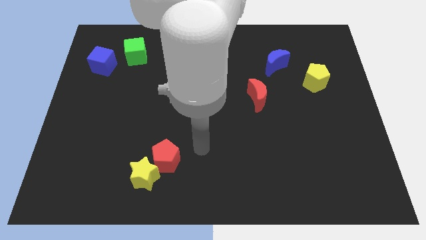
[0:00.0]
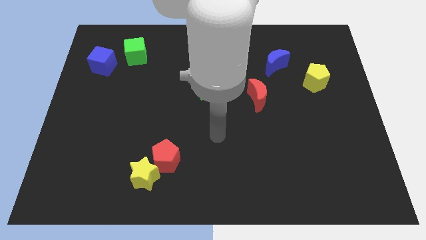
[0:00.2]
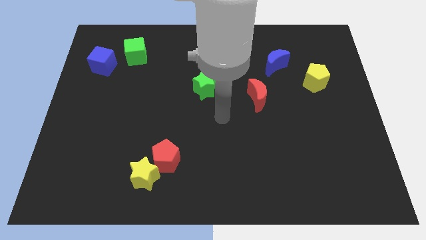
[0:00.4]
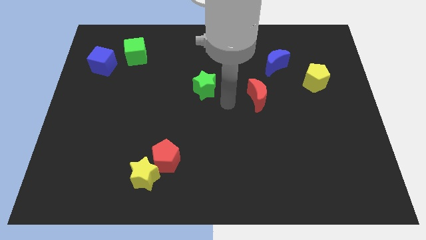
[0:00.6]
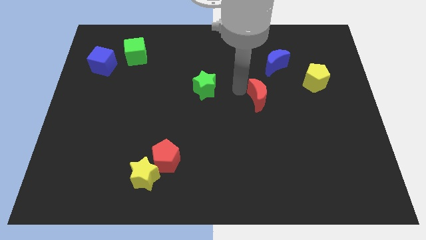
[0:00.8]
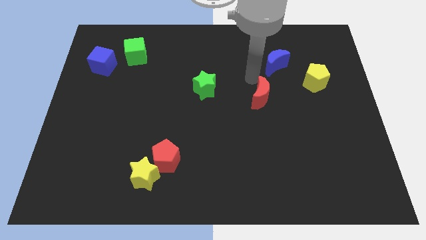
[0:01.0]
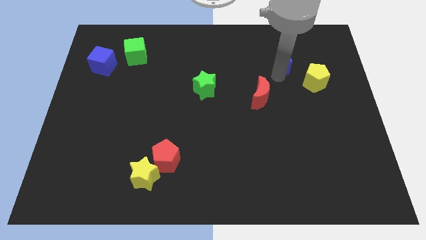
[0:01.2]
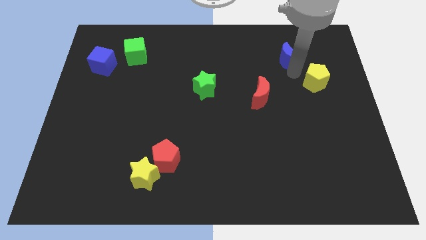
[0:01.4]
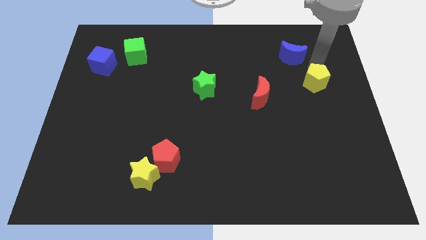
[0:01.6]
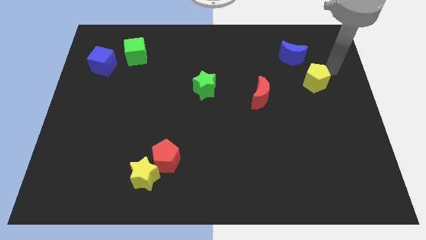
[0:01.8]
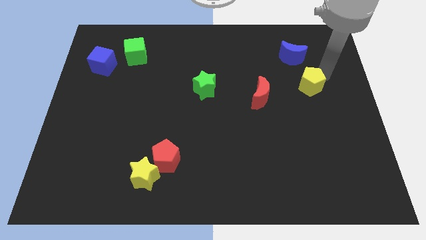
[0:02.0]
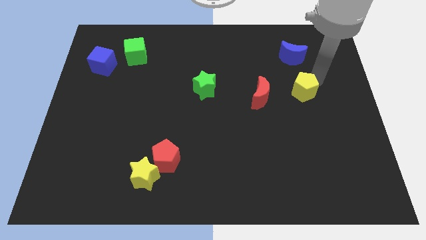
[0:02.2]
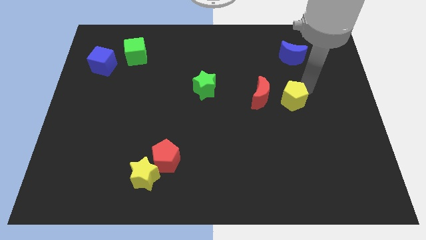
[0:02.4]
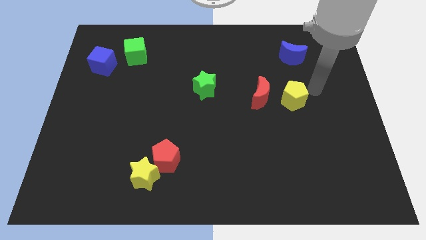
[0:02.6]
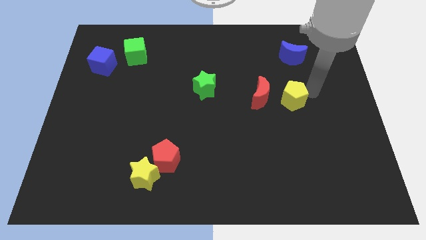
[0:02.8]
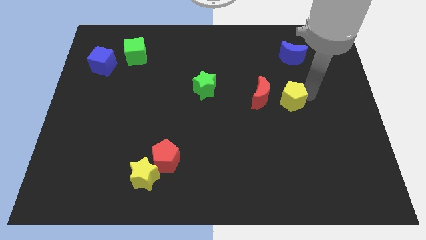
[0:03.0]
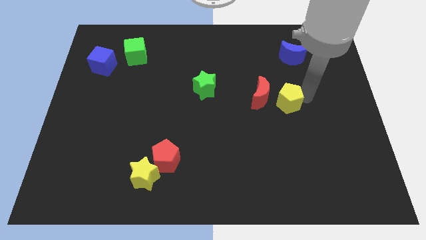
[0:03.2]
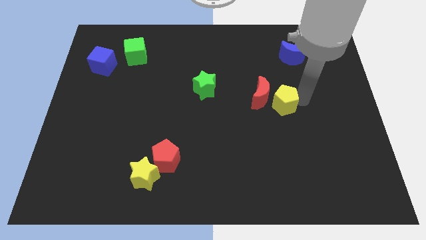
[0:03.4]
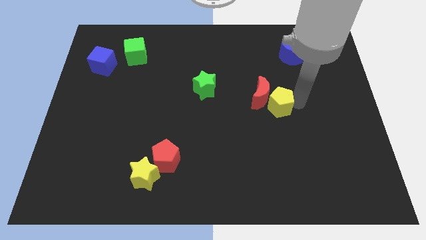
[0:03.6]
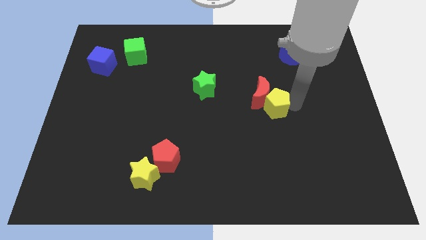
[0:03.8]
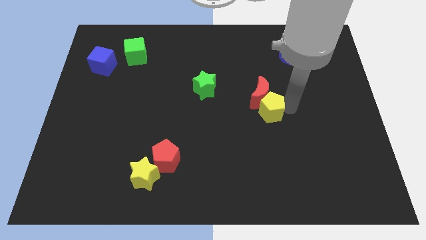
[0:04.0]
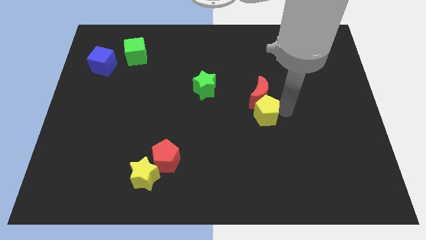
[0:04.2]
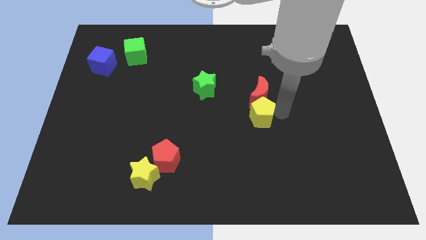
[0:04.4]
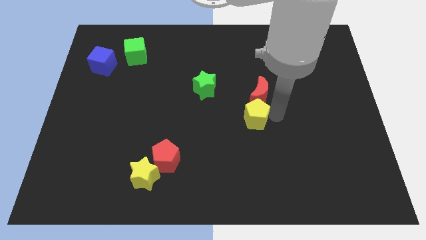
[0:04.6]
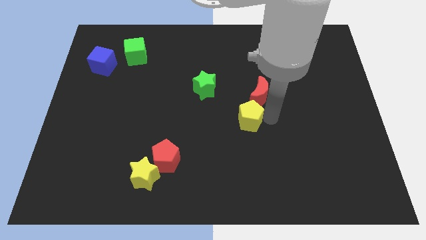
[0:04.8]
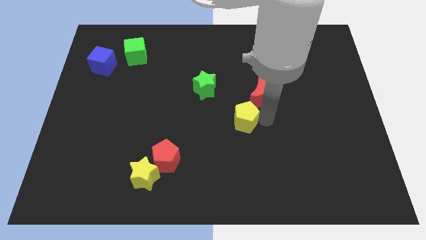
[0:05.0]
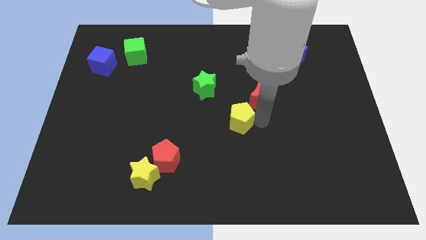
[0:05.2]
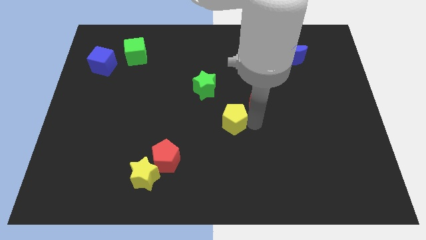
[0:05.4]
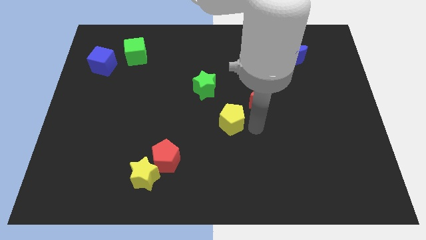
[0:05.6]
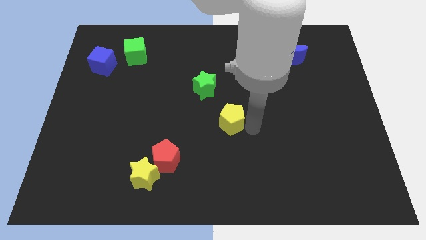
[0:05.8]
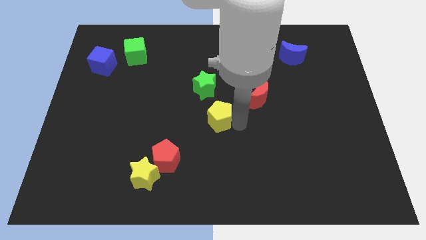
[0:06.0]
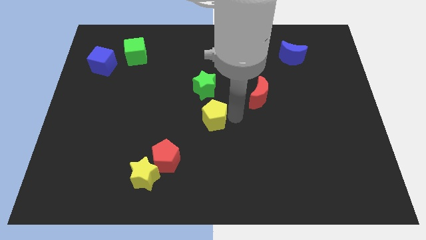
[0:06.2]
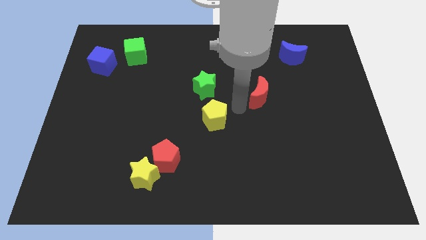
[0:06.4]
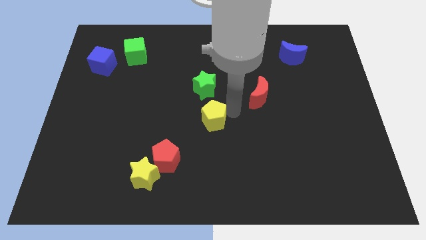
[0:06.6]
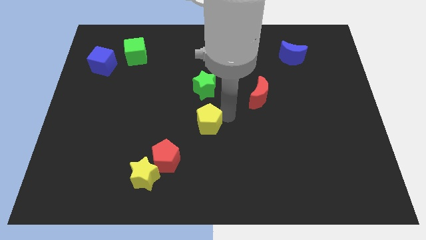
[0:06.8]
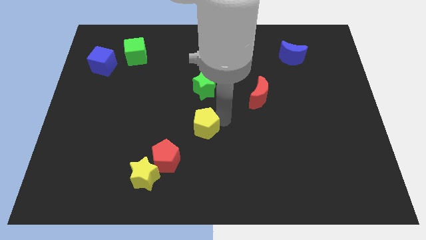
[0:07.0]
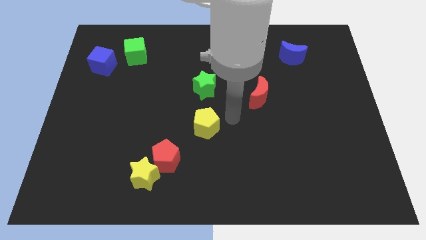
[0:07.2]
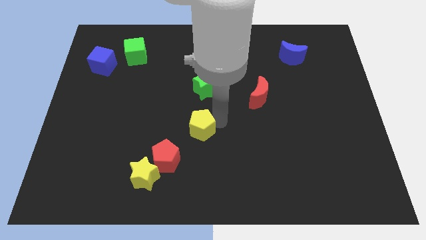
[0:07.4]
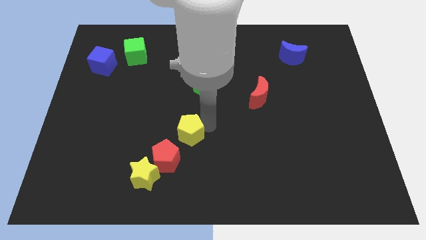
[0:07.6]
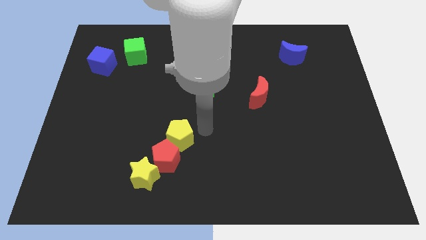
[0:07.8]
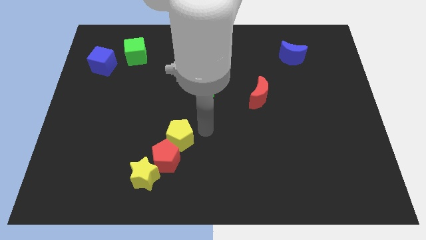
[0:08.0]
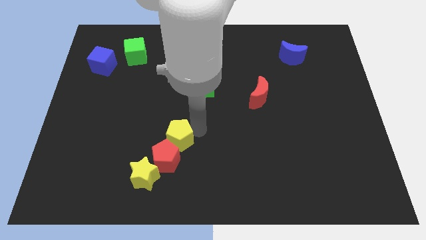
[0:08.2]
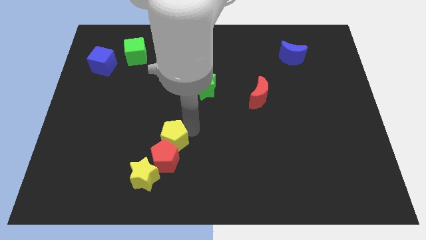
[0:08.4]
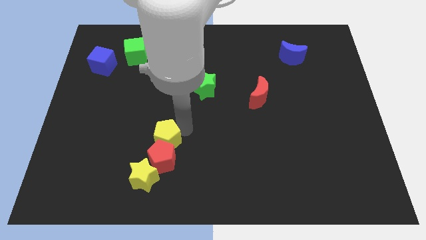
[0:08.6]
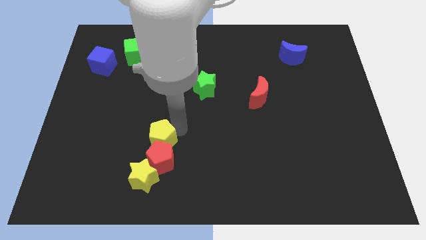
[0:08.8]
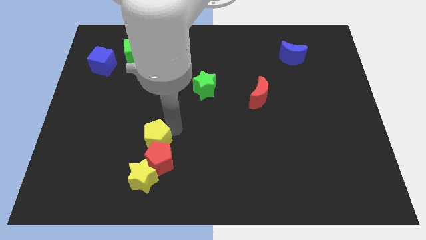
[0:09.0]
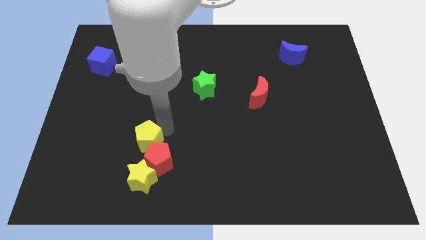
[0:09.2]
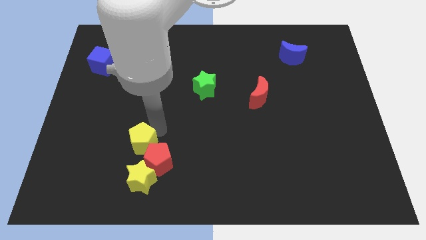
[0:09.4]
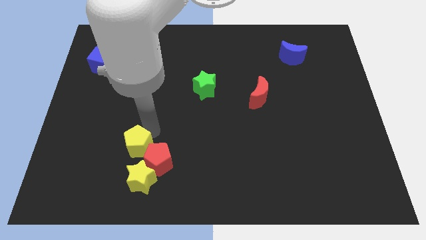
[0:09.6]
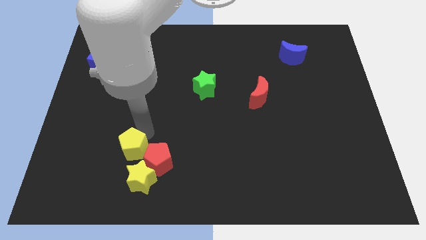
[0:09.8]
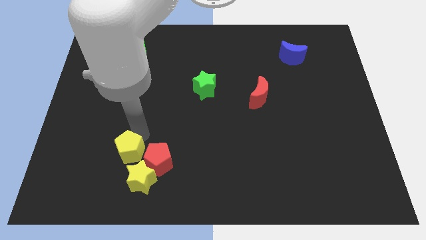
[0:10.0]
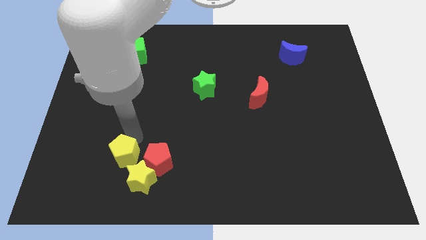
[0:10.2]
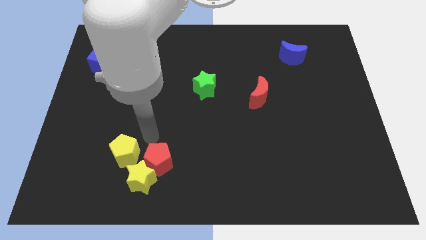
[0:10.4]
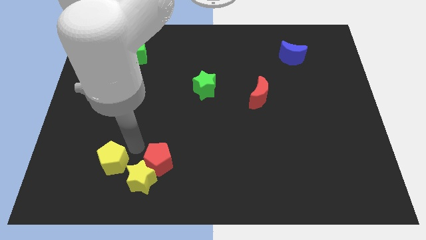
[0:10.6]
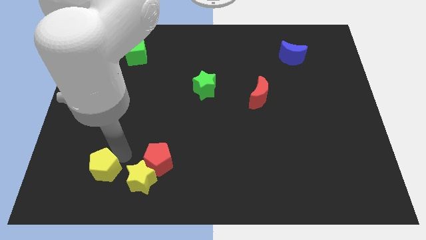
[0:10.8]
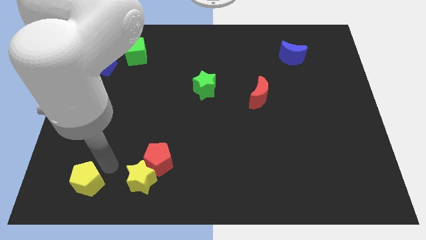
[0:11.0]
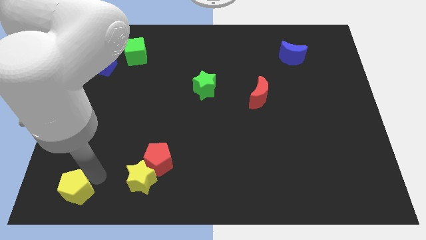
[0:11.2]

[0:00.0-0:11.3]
put the yellow pentagon to the bottom left of the board

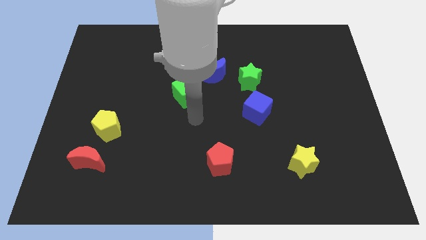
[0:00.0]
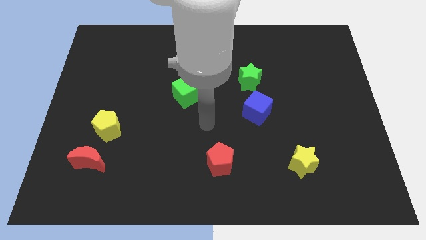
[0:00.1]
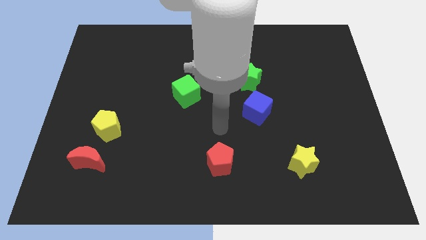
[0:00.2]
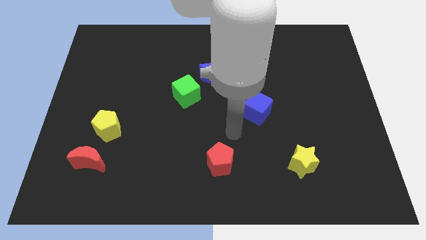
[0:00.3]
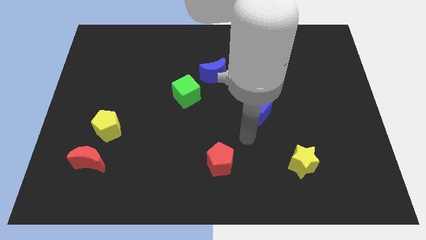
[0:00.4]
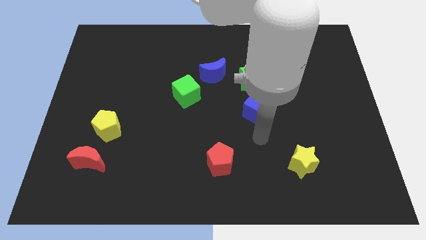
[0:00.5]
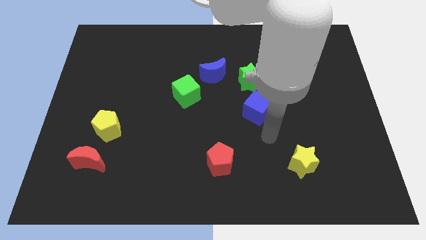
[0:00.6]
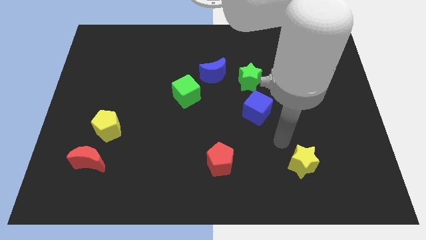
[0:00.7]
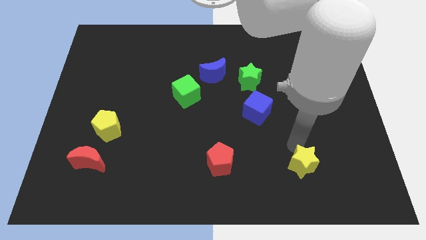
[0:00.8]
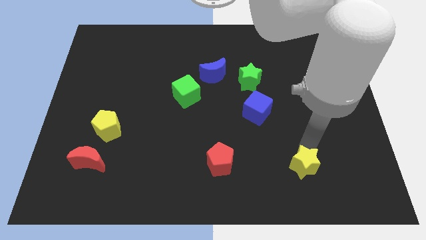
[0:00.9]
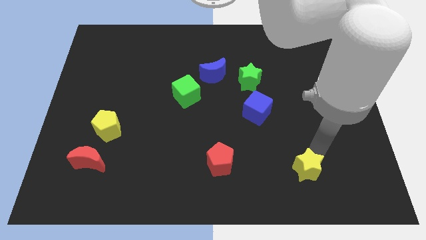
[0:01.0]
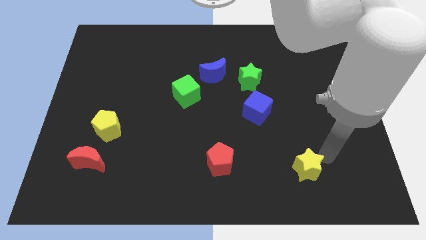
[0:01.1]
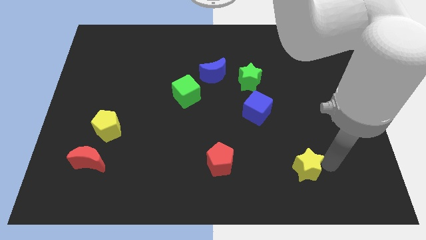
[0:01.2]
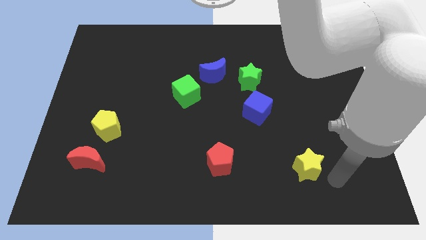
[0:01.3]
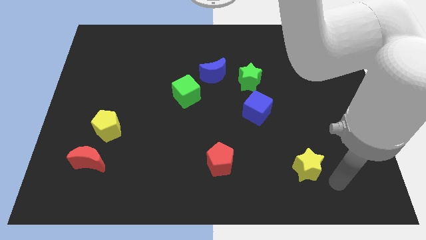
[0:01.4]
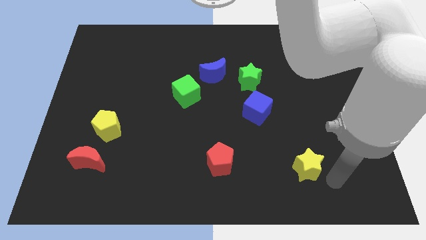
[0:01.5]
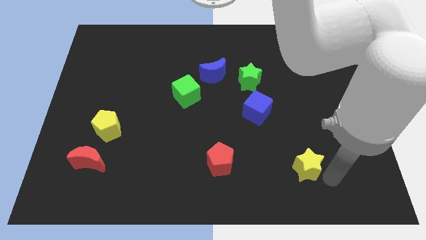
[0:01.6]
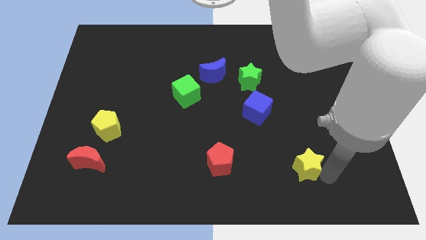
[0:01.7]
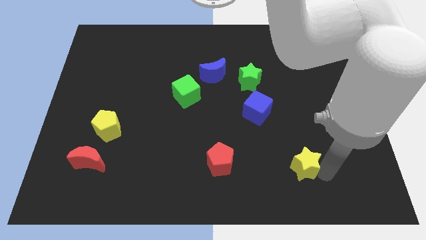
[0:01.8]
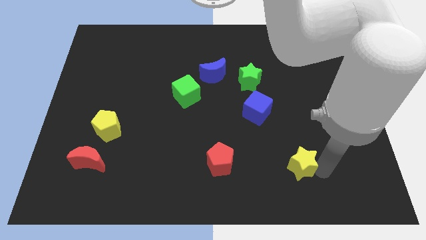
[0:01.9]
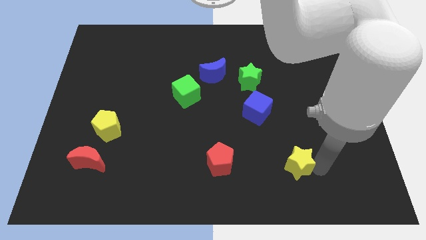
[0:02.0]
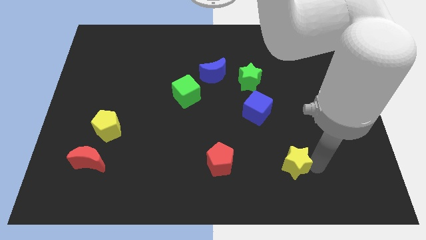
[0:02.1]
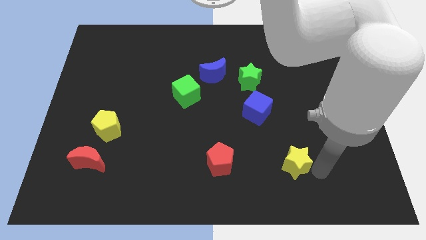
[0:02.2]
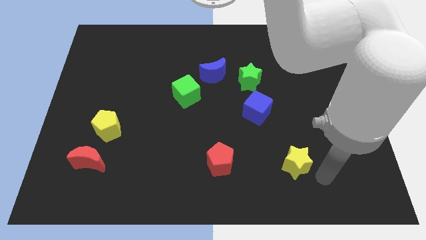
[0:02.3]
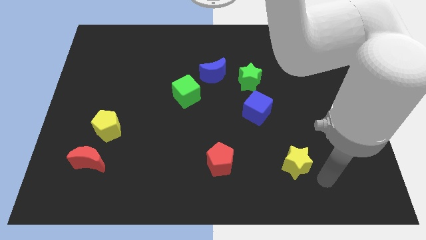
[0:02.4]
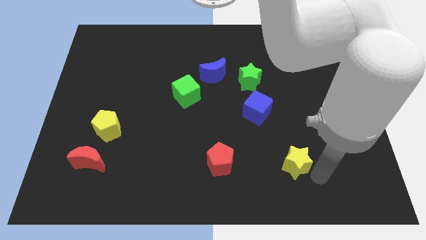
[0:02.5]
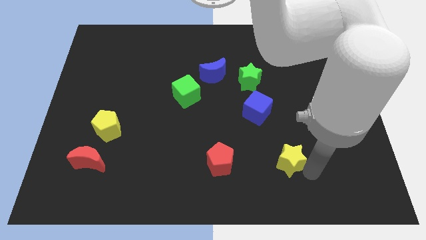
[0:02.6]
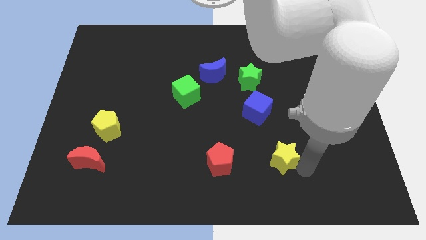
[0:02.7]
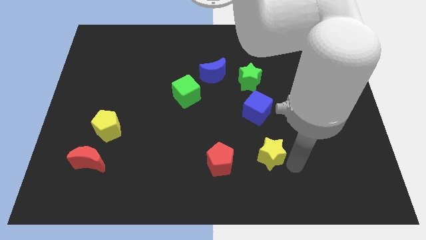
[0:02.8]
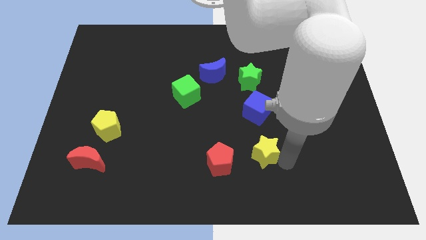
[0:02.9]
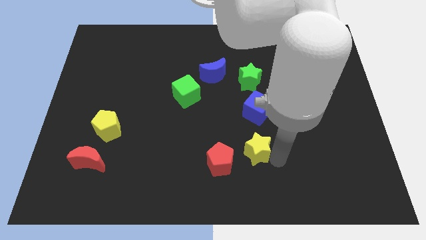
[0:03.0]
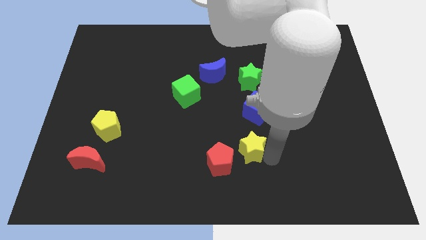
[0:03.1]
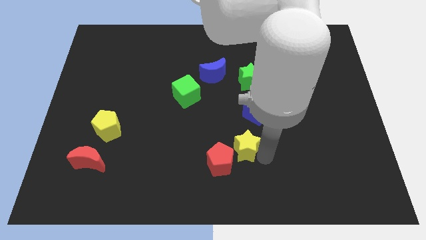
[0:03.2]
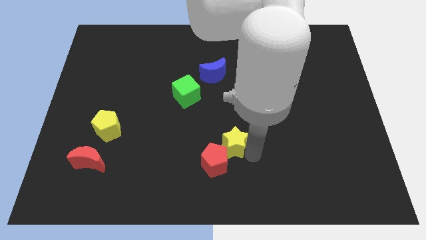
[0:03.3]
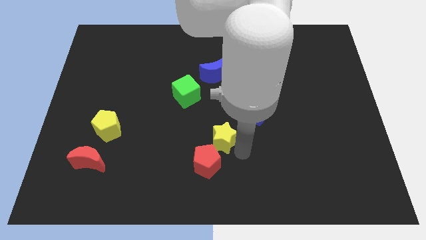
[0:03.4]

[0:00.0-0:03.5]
slide the yellow star to the center
